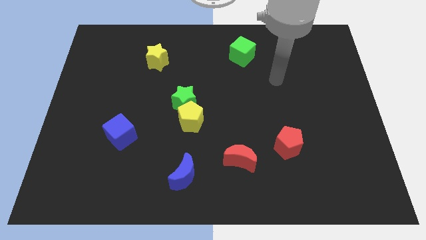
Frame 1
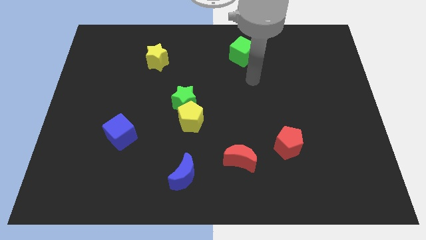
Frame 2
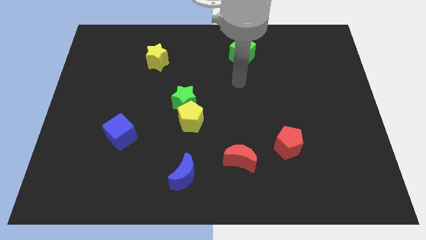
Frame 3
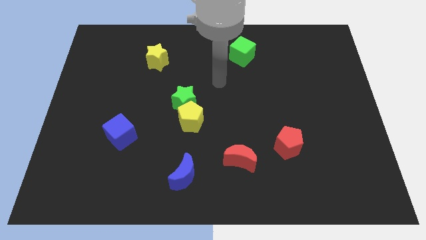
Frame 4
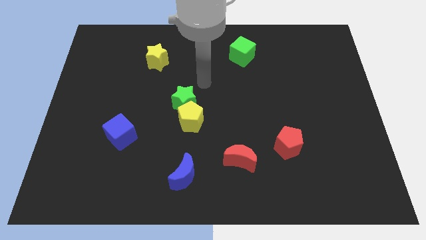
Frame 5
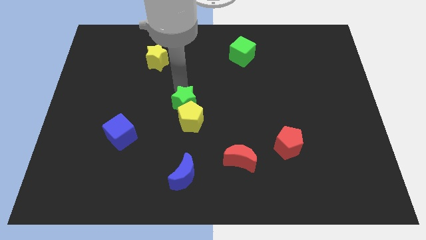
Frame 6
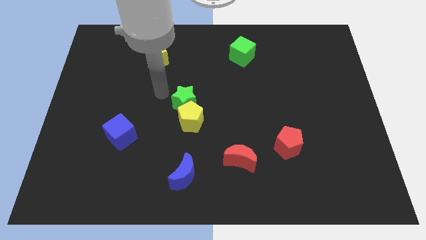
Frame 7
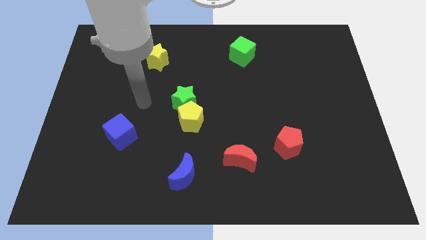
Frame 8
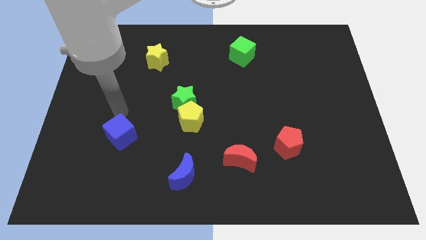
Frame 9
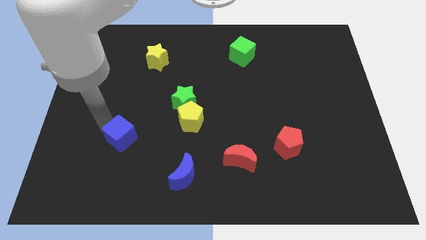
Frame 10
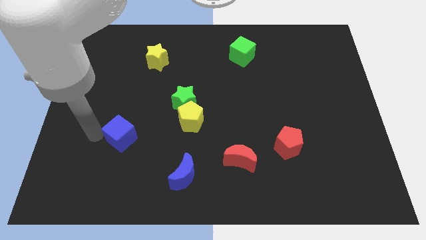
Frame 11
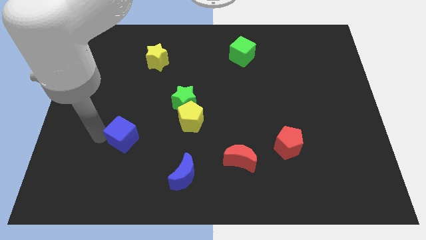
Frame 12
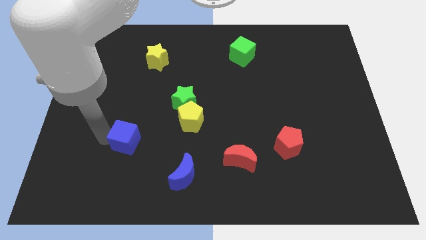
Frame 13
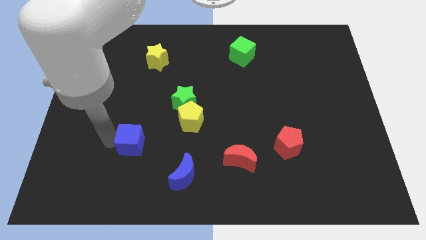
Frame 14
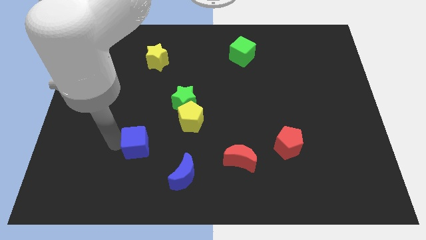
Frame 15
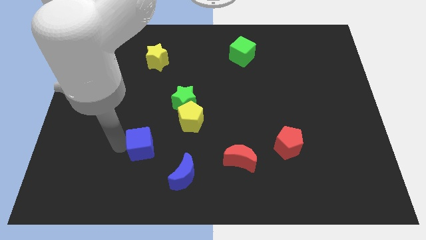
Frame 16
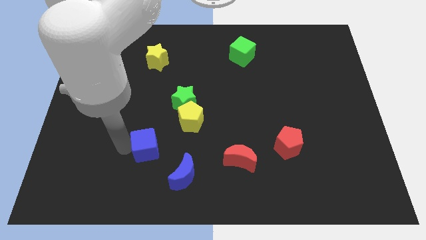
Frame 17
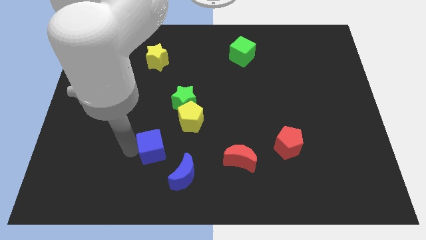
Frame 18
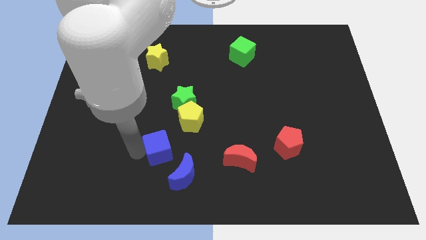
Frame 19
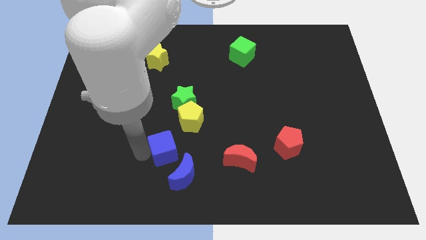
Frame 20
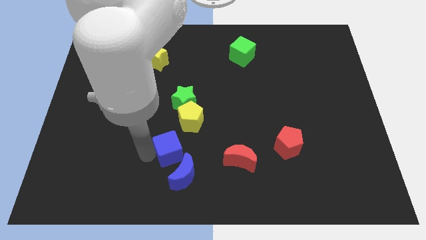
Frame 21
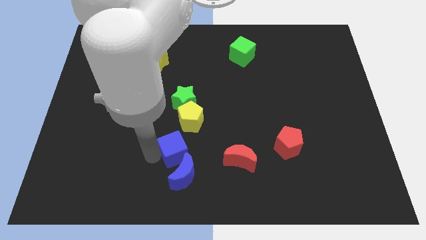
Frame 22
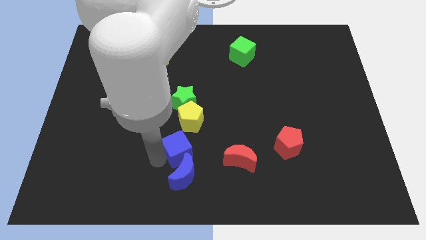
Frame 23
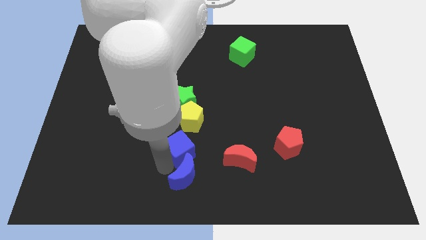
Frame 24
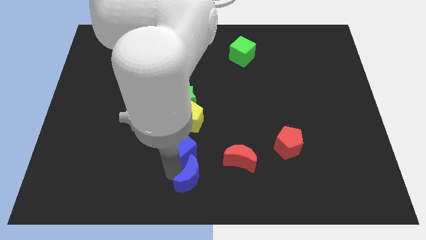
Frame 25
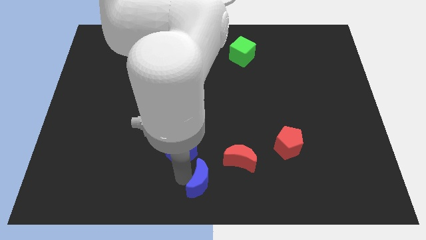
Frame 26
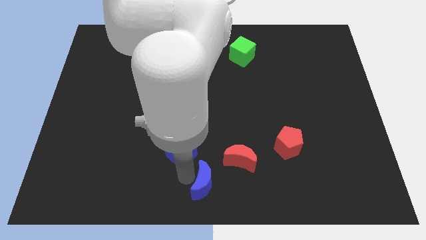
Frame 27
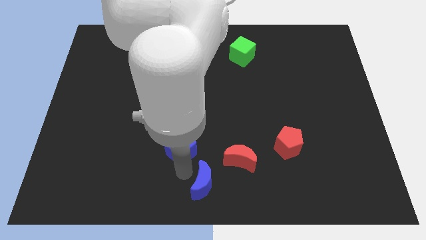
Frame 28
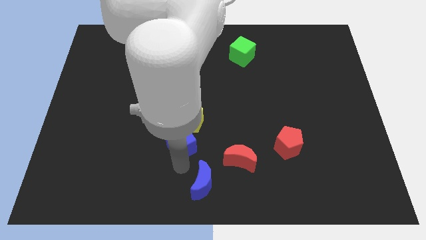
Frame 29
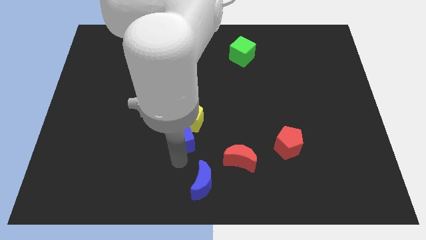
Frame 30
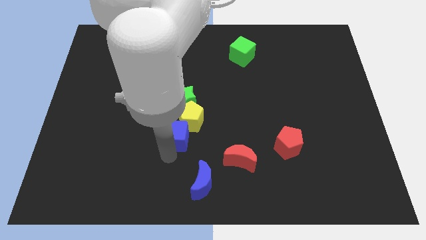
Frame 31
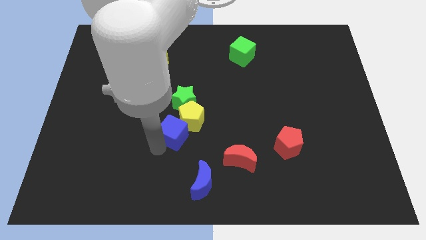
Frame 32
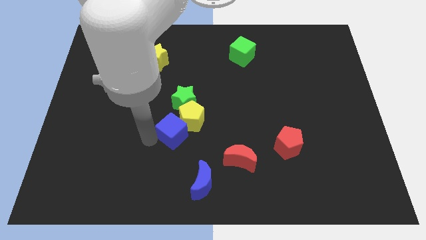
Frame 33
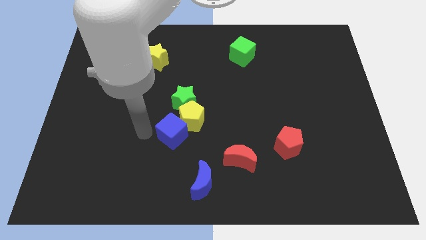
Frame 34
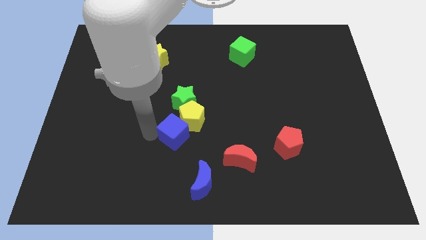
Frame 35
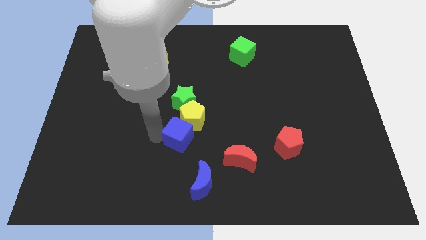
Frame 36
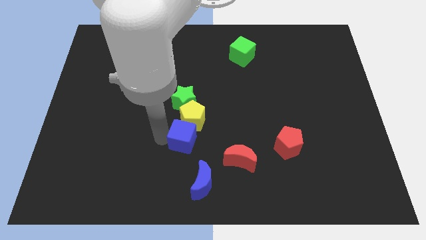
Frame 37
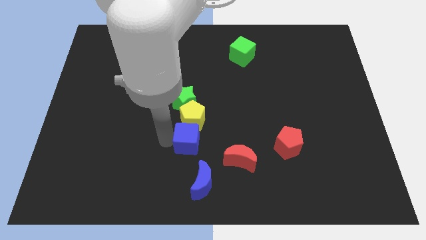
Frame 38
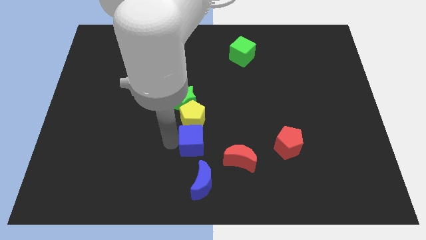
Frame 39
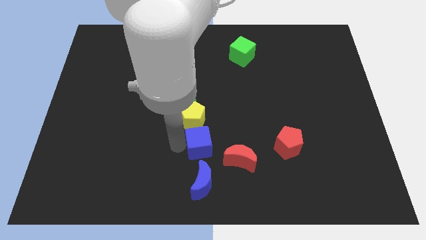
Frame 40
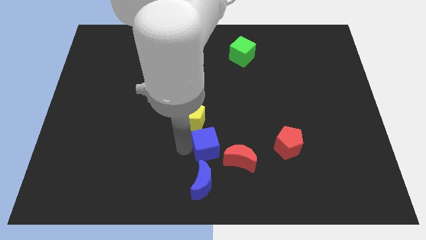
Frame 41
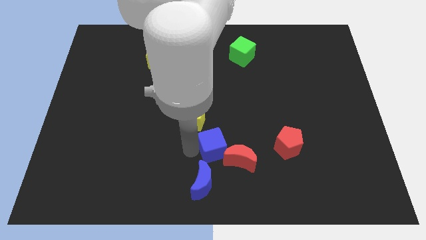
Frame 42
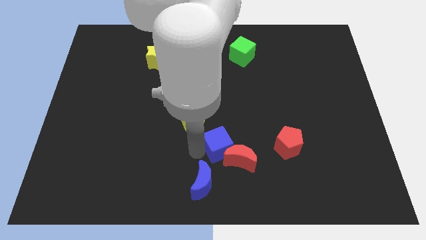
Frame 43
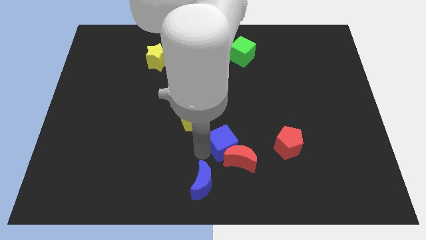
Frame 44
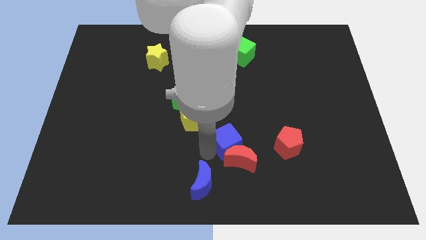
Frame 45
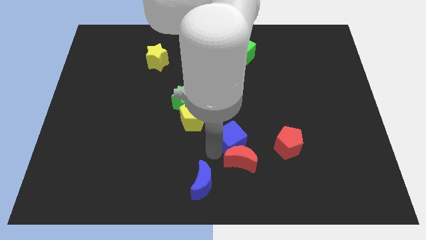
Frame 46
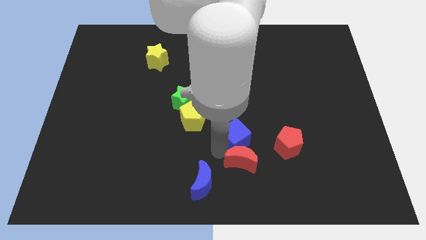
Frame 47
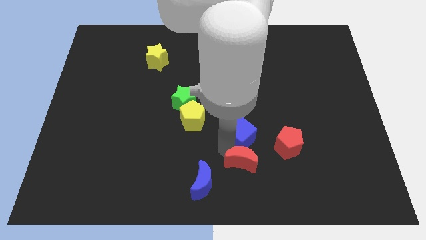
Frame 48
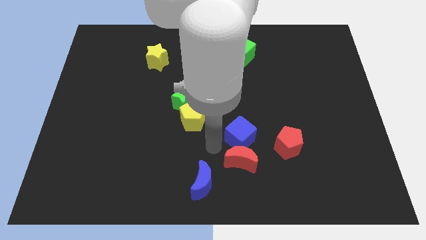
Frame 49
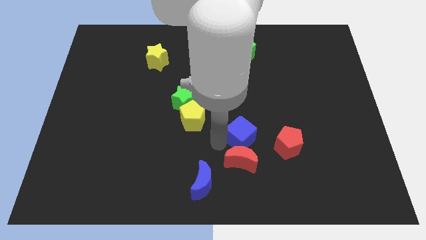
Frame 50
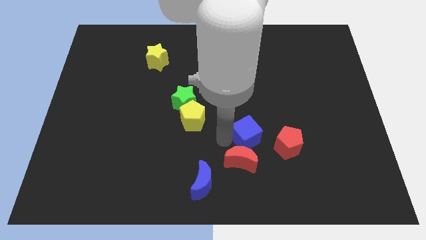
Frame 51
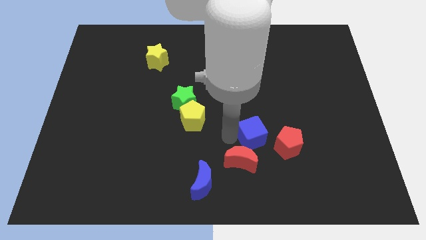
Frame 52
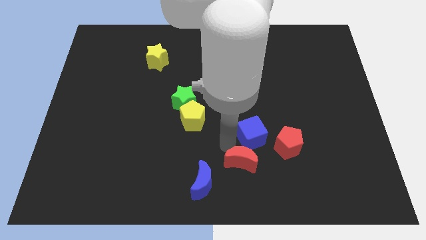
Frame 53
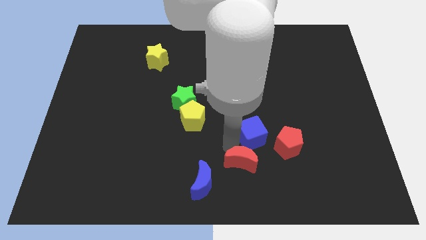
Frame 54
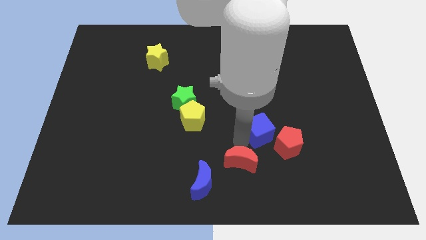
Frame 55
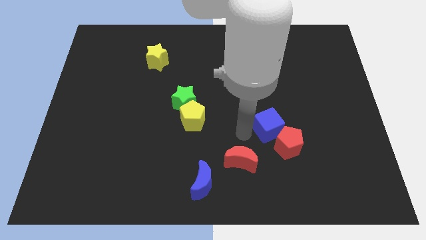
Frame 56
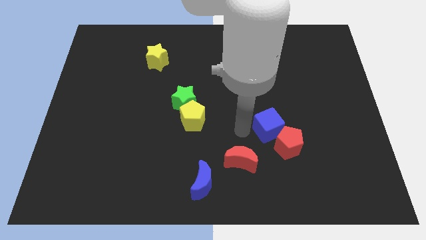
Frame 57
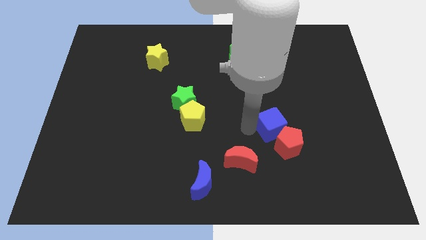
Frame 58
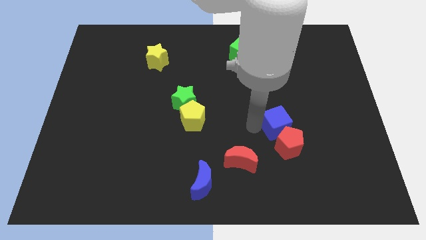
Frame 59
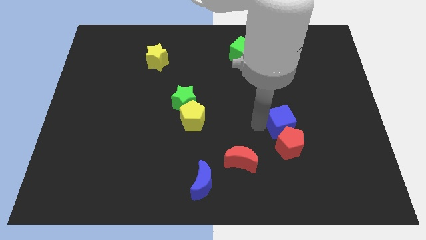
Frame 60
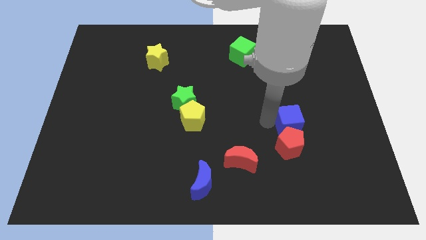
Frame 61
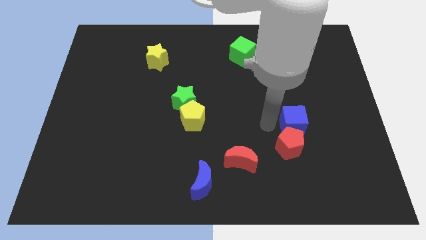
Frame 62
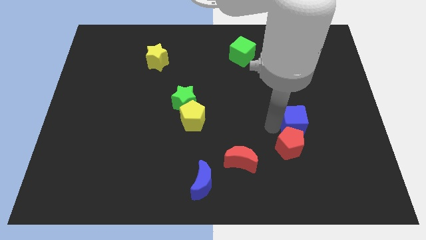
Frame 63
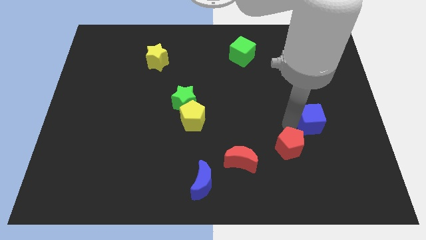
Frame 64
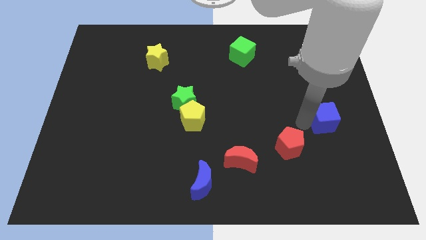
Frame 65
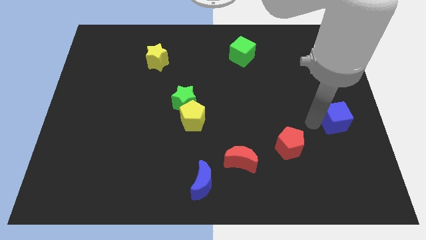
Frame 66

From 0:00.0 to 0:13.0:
move the blue cube to the center right

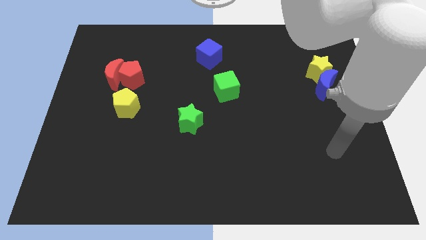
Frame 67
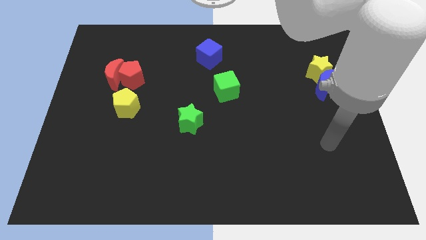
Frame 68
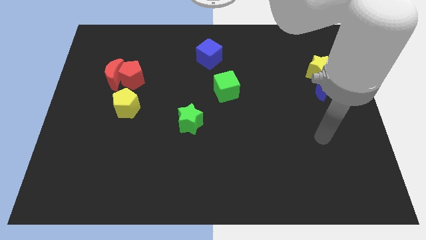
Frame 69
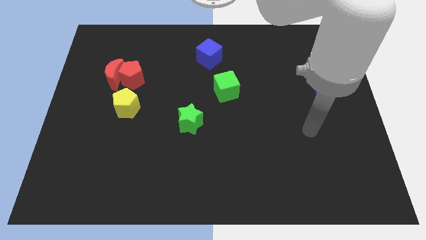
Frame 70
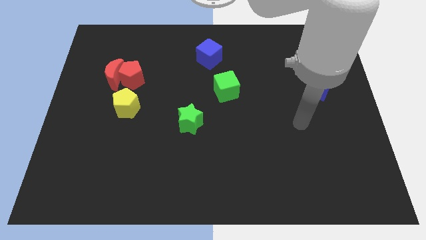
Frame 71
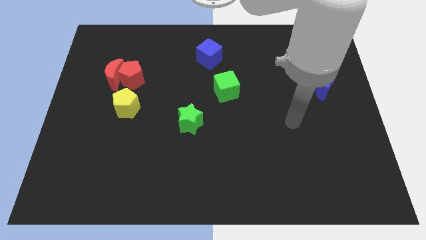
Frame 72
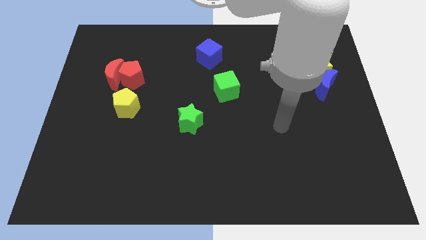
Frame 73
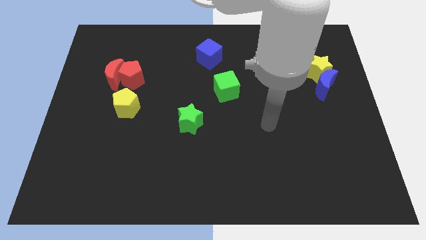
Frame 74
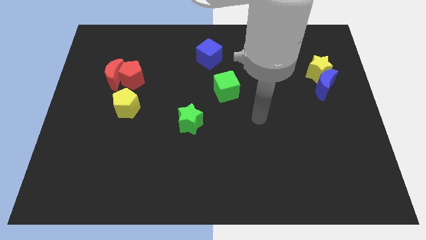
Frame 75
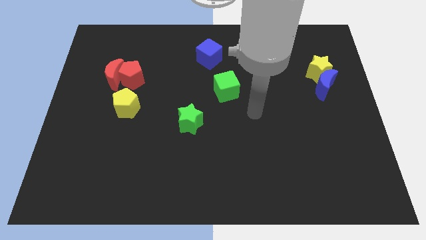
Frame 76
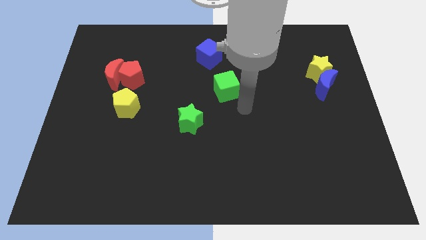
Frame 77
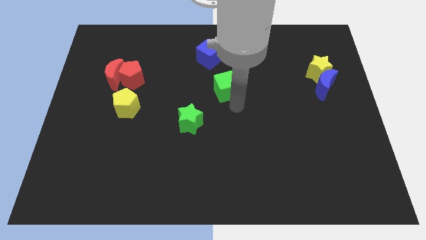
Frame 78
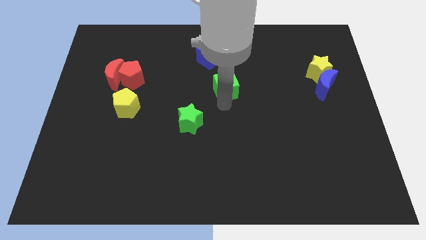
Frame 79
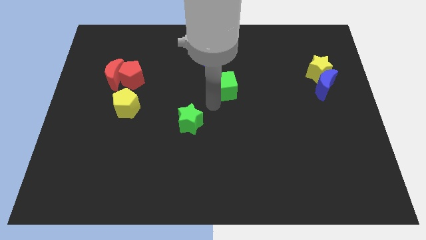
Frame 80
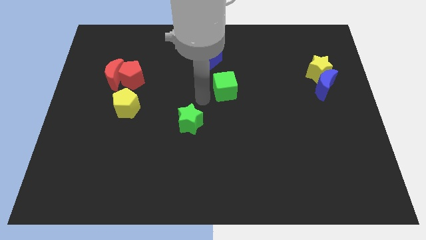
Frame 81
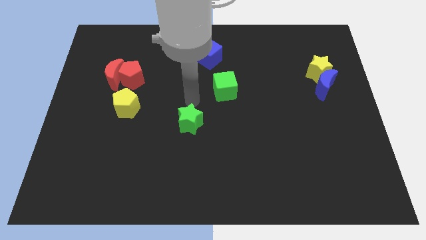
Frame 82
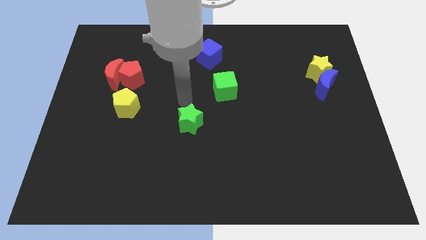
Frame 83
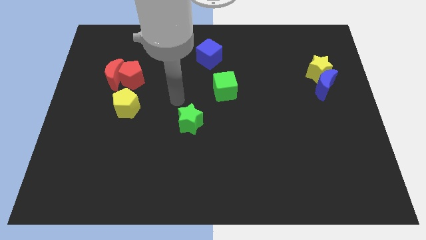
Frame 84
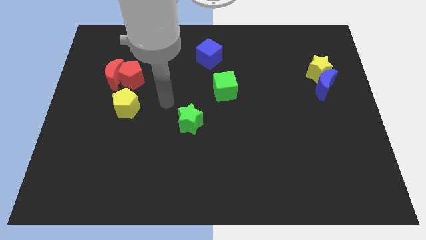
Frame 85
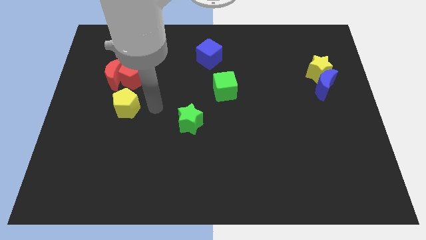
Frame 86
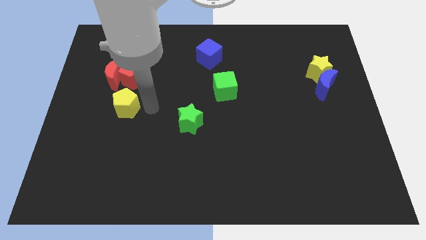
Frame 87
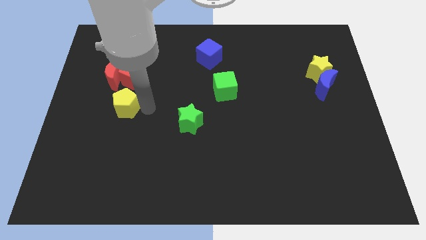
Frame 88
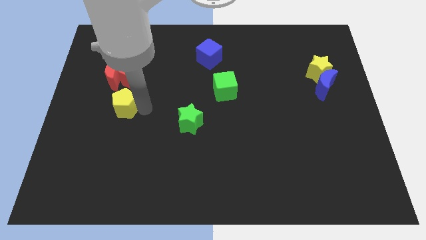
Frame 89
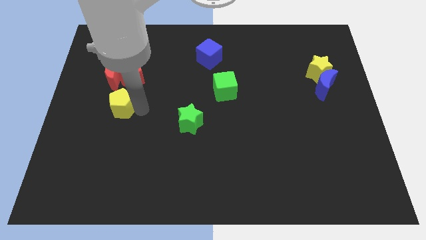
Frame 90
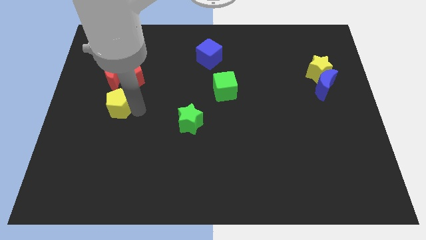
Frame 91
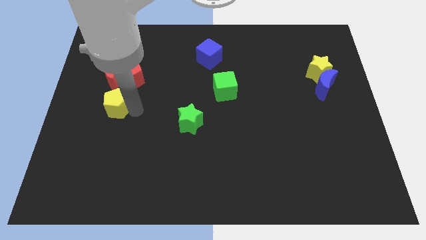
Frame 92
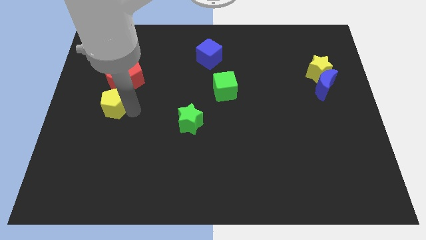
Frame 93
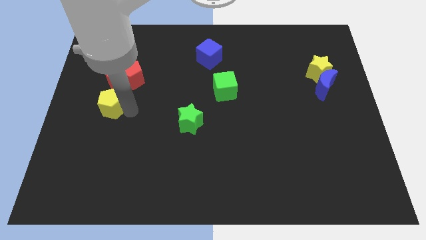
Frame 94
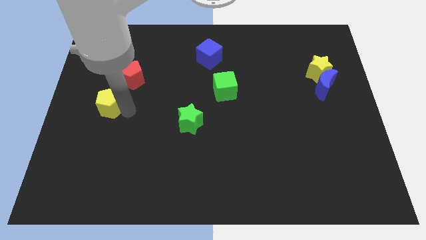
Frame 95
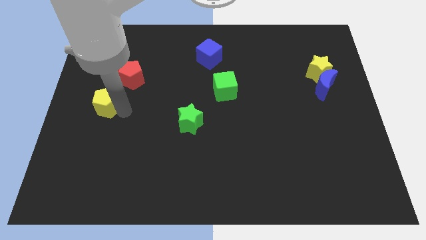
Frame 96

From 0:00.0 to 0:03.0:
slide the yellow pentagon to the center left
